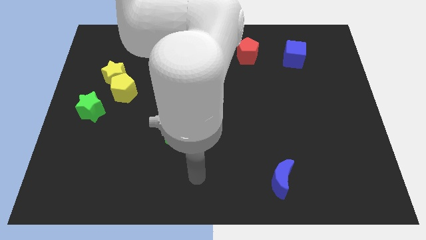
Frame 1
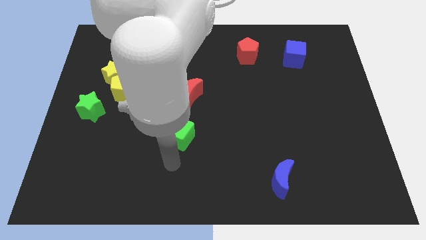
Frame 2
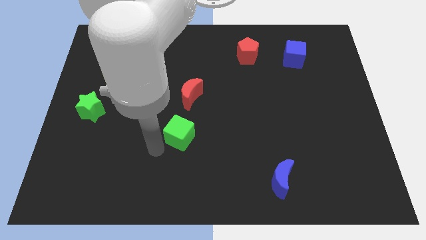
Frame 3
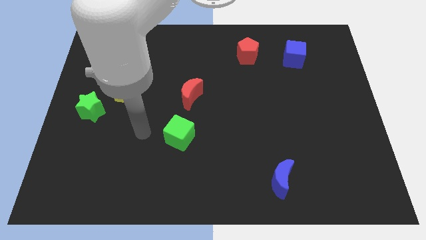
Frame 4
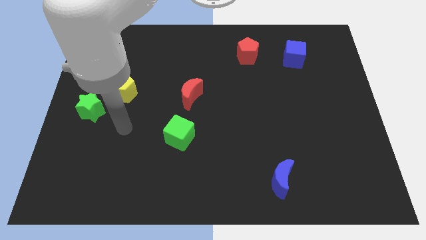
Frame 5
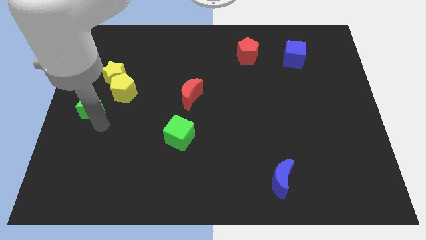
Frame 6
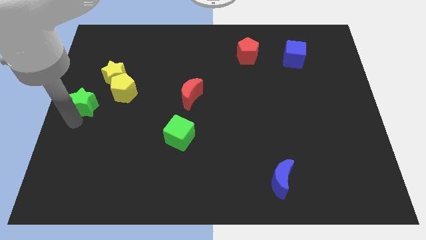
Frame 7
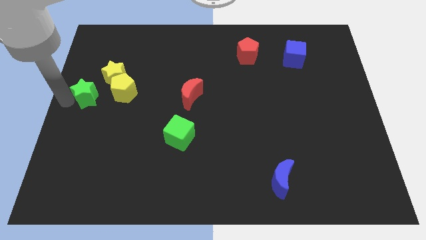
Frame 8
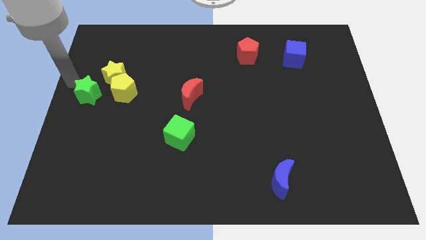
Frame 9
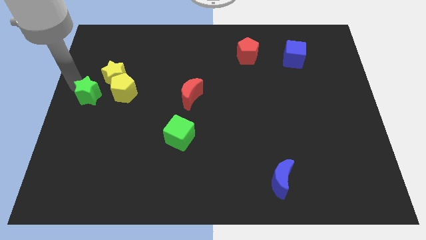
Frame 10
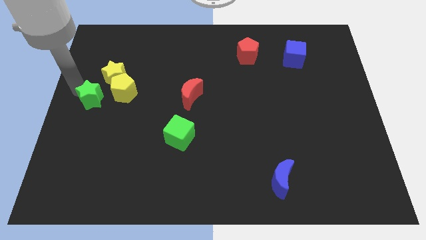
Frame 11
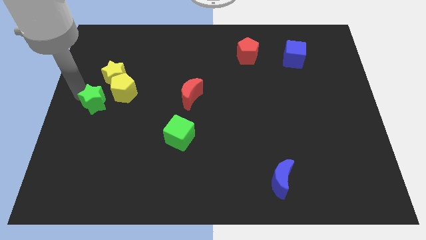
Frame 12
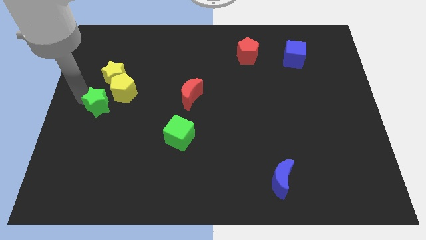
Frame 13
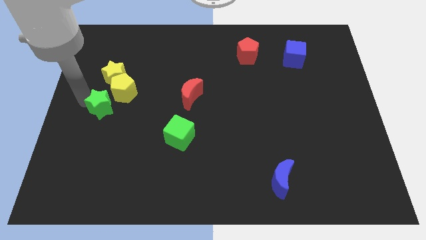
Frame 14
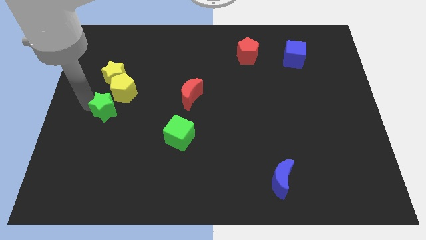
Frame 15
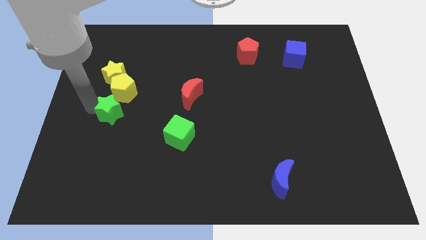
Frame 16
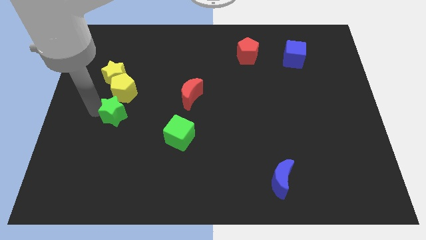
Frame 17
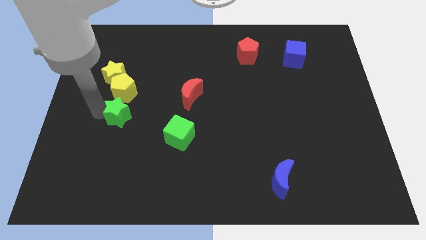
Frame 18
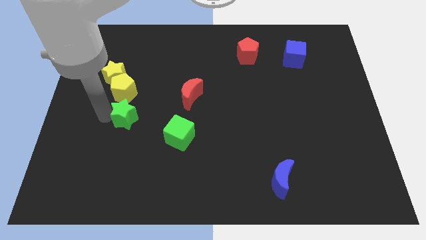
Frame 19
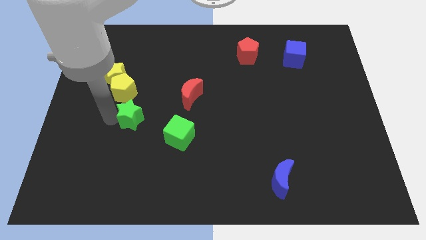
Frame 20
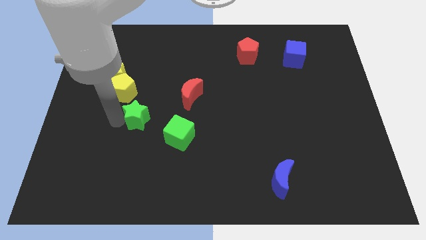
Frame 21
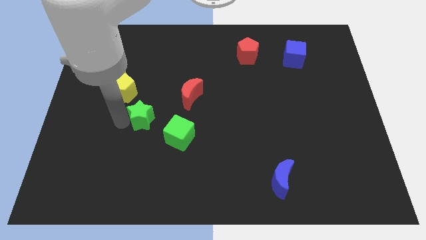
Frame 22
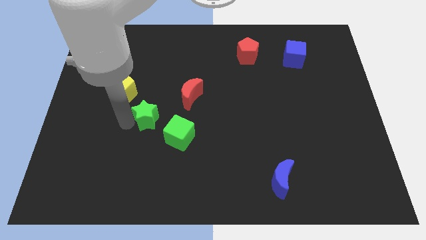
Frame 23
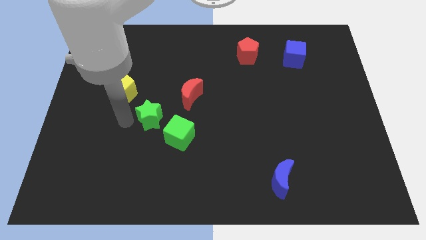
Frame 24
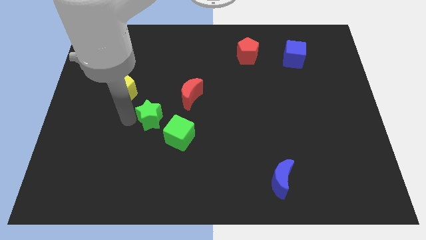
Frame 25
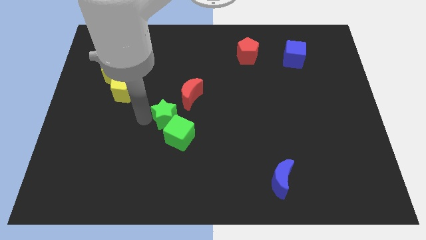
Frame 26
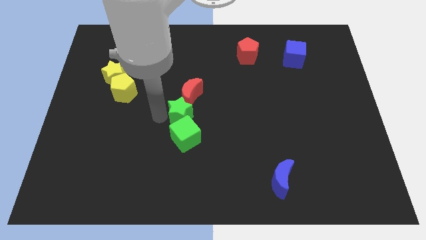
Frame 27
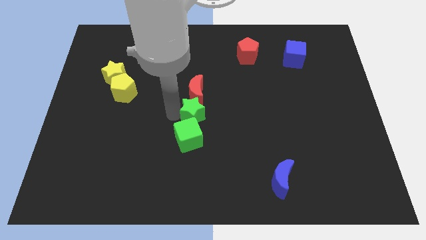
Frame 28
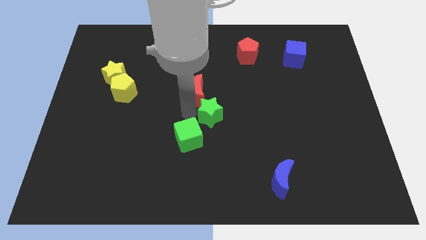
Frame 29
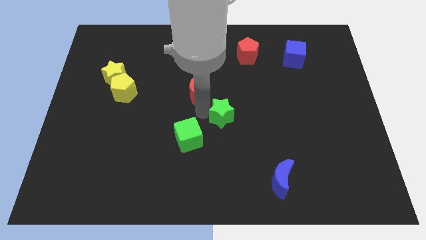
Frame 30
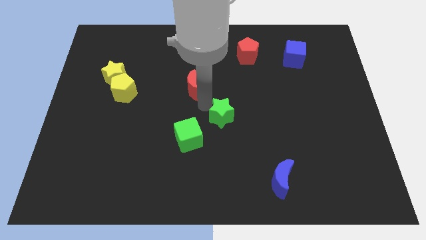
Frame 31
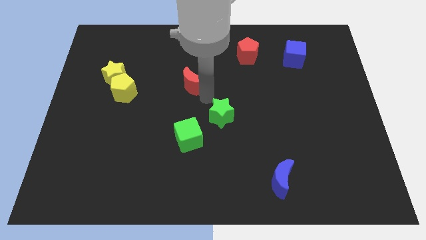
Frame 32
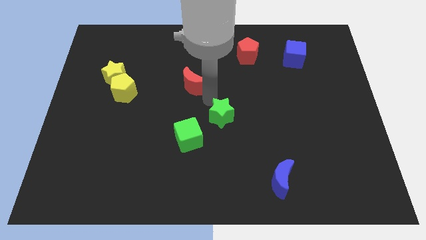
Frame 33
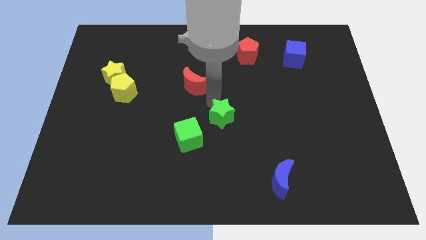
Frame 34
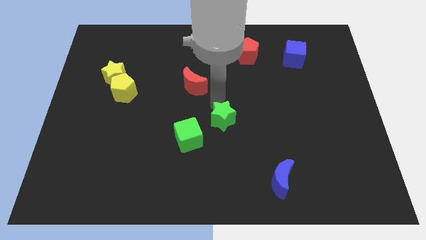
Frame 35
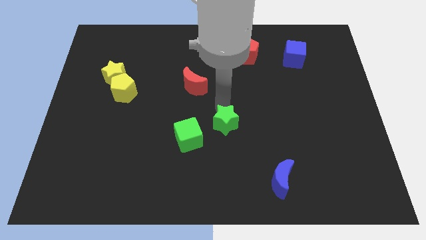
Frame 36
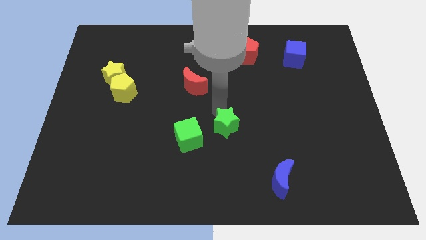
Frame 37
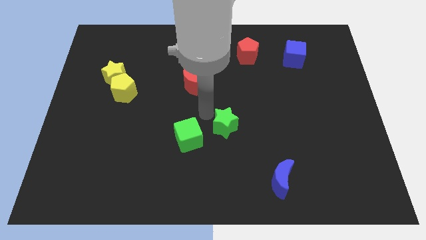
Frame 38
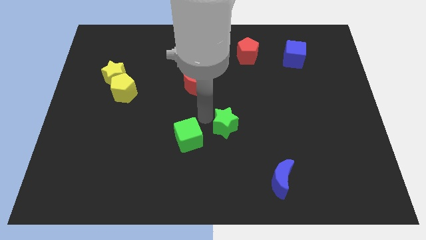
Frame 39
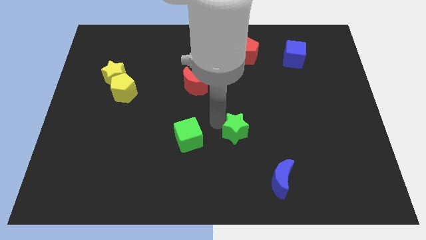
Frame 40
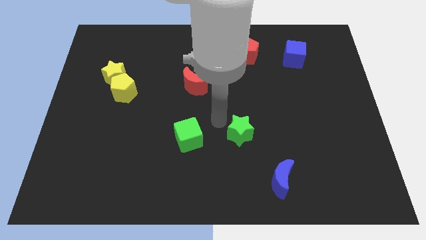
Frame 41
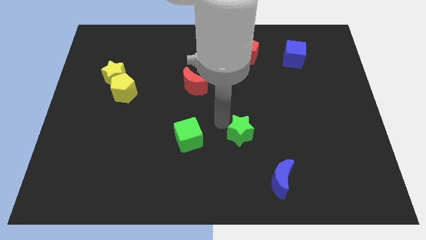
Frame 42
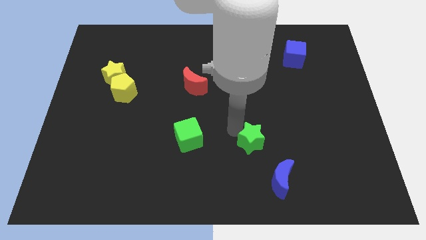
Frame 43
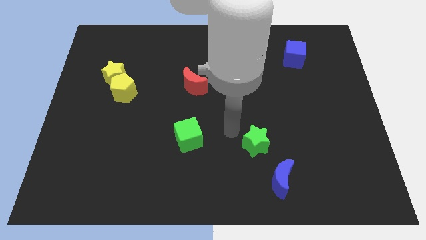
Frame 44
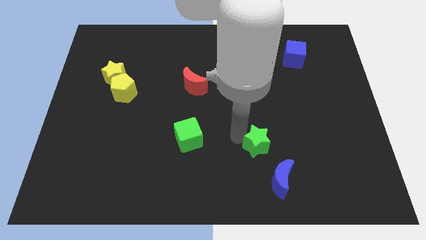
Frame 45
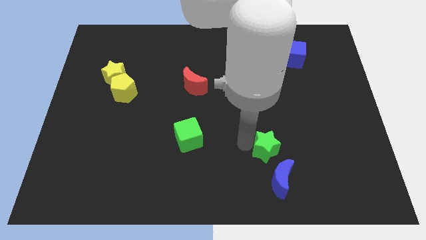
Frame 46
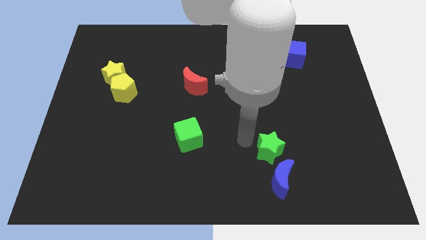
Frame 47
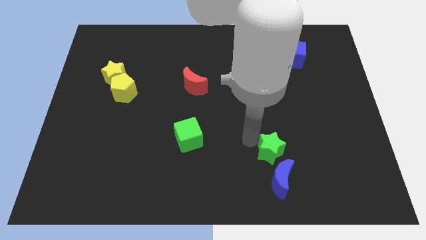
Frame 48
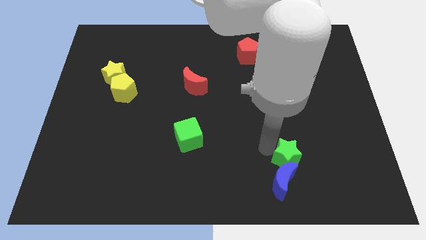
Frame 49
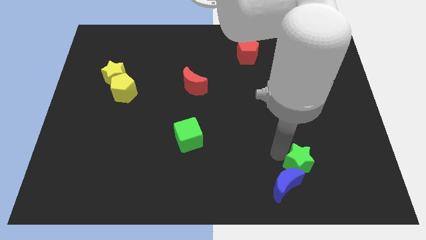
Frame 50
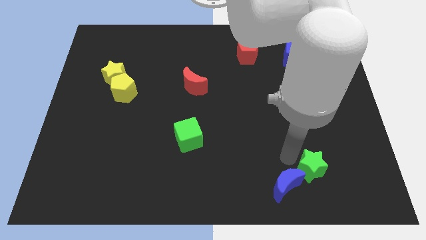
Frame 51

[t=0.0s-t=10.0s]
push the green star to the right side of the blue moon

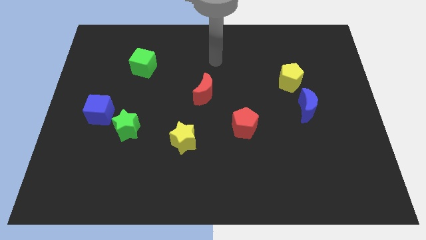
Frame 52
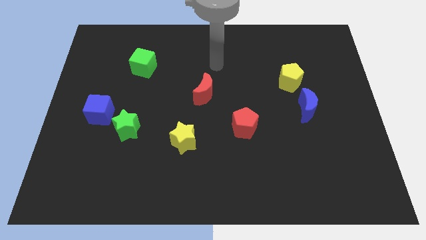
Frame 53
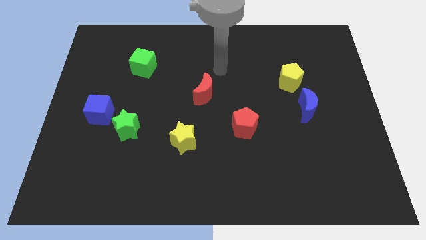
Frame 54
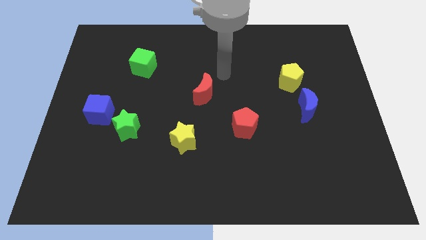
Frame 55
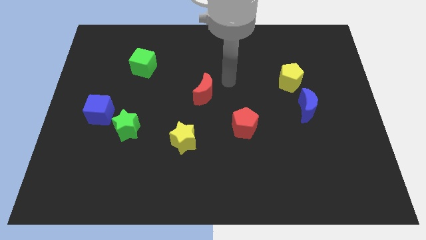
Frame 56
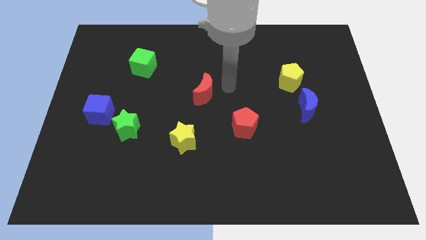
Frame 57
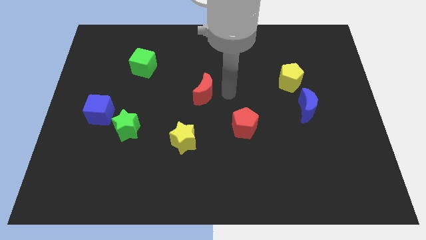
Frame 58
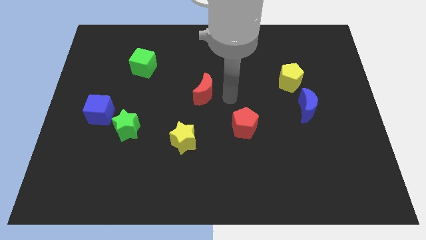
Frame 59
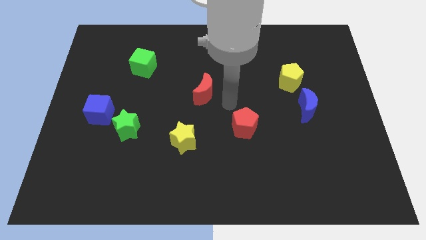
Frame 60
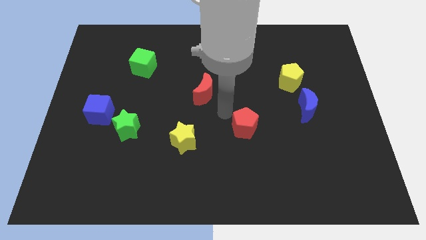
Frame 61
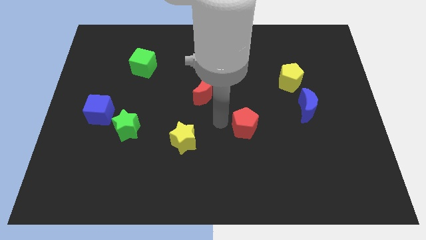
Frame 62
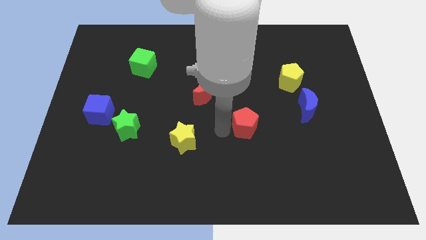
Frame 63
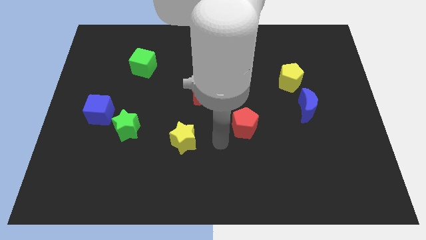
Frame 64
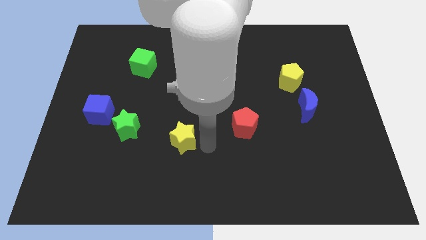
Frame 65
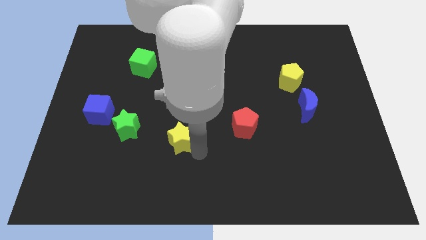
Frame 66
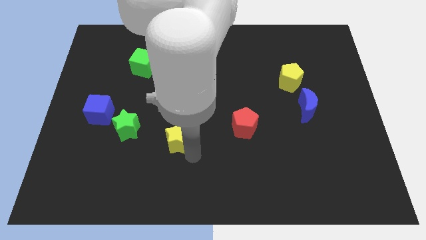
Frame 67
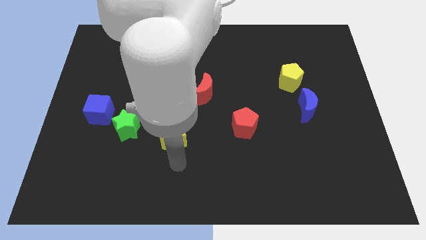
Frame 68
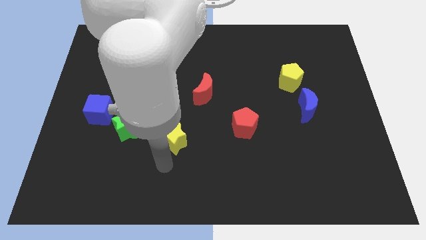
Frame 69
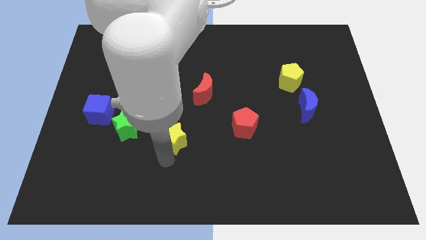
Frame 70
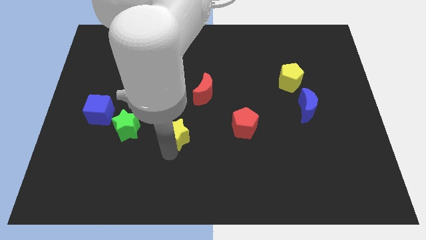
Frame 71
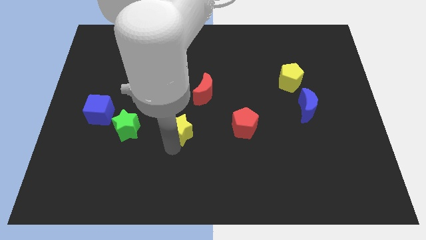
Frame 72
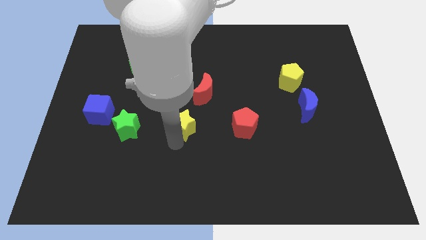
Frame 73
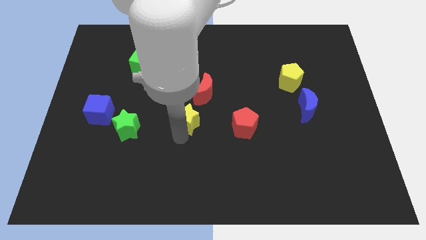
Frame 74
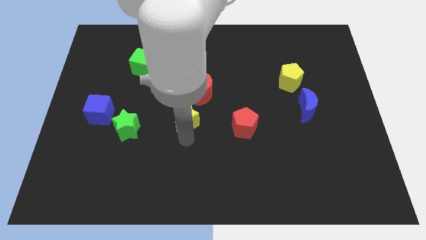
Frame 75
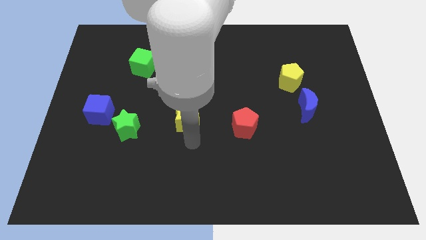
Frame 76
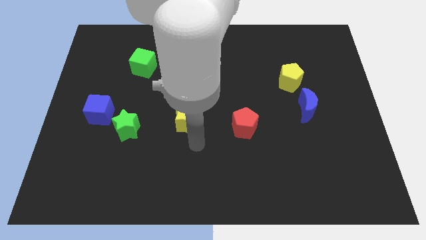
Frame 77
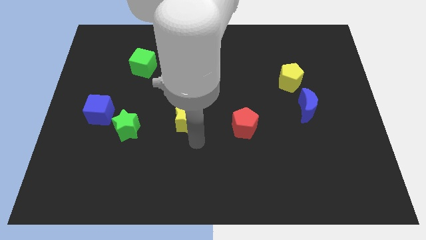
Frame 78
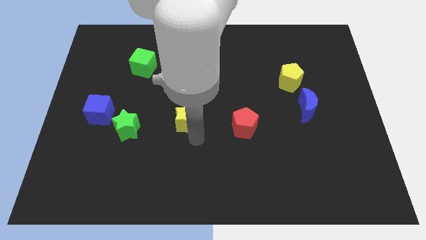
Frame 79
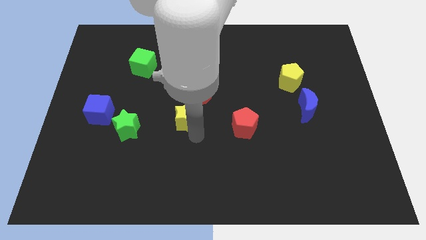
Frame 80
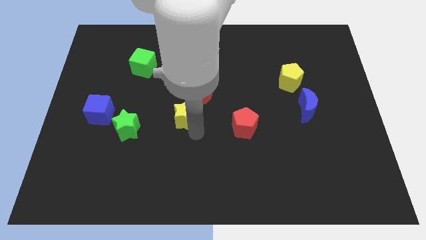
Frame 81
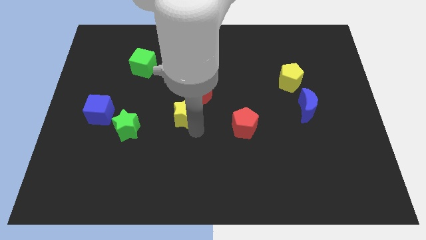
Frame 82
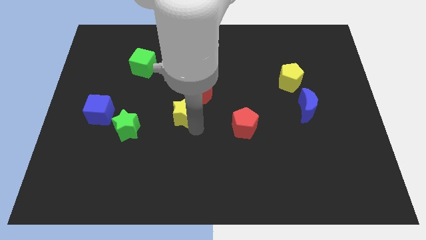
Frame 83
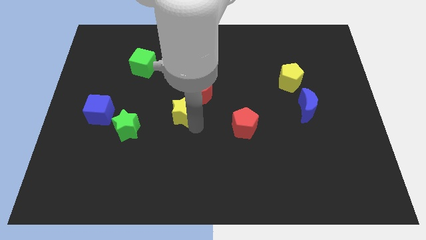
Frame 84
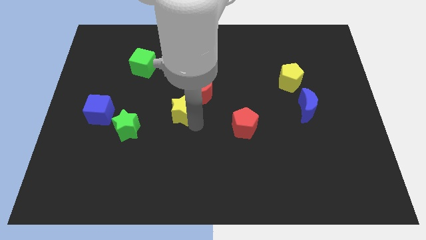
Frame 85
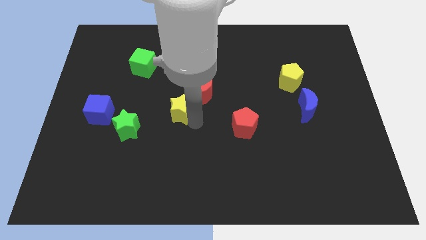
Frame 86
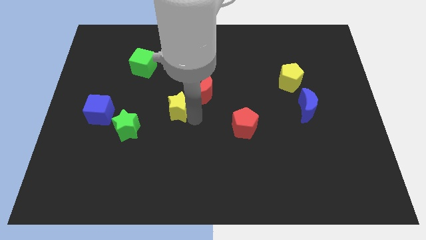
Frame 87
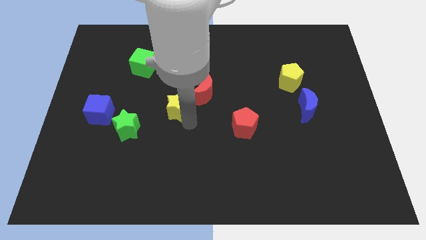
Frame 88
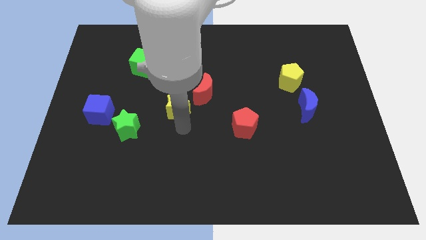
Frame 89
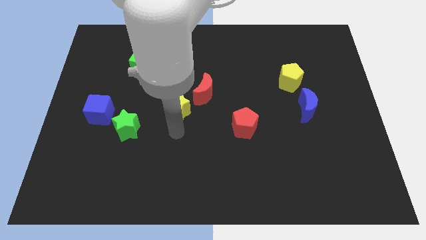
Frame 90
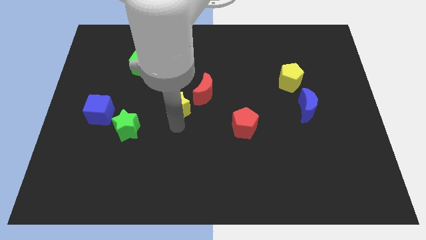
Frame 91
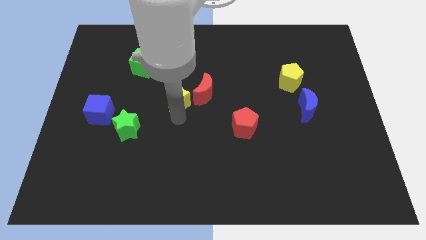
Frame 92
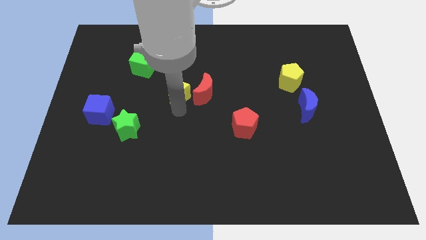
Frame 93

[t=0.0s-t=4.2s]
put the yellow star to the top left of the red moon
